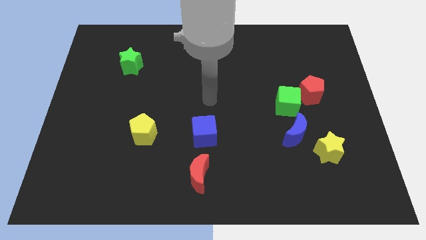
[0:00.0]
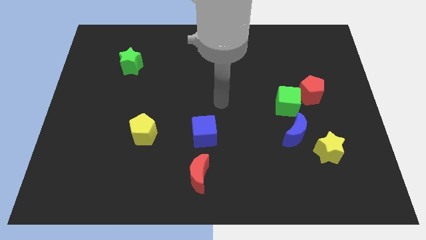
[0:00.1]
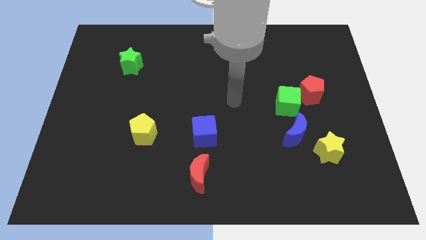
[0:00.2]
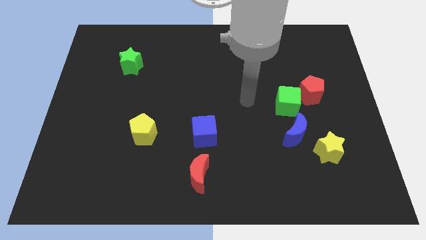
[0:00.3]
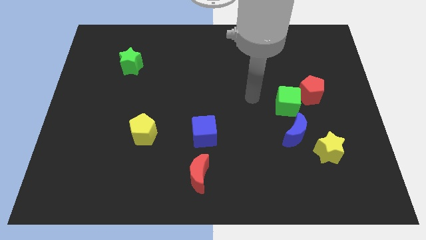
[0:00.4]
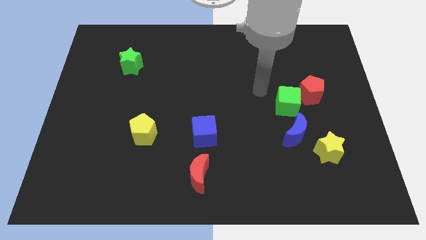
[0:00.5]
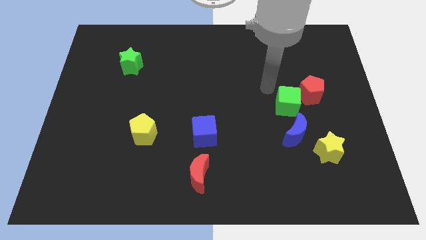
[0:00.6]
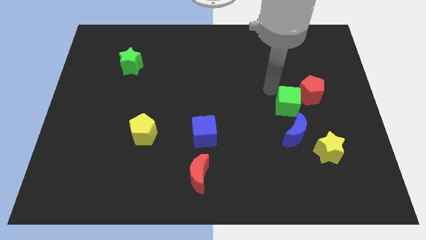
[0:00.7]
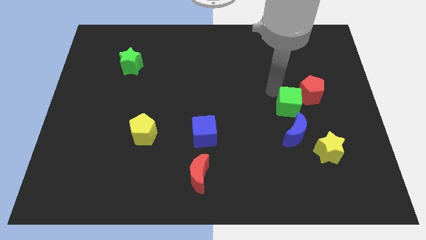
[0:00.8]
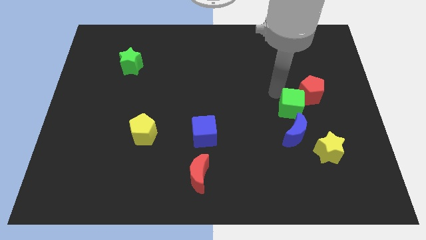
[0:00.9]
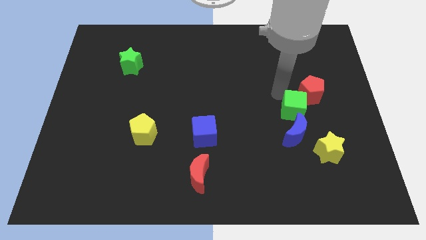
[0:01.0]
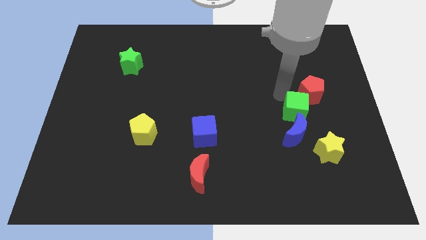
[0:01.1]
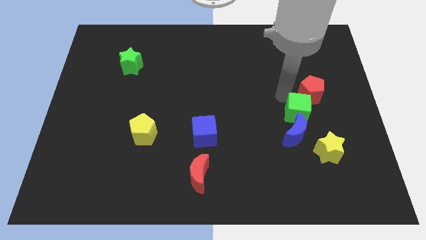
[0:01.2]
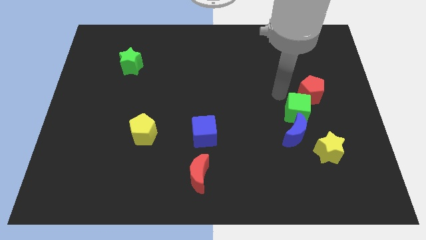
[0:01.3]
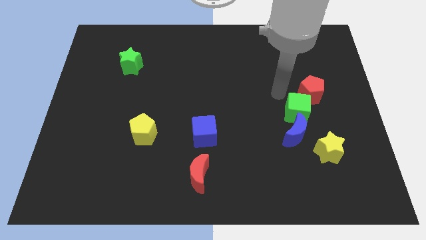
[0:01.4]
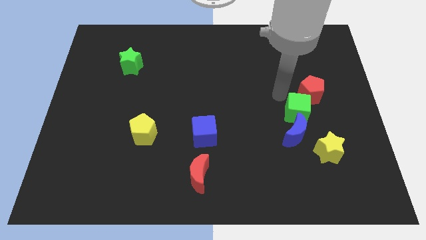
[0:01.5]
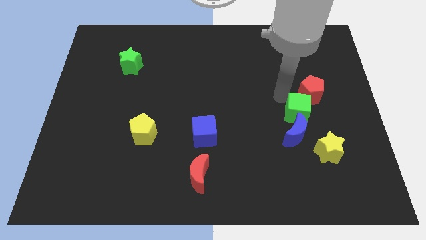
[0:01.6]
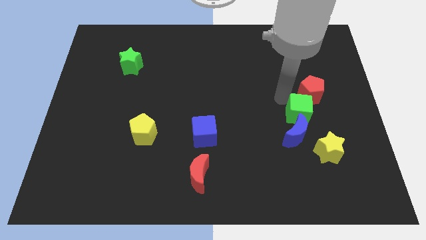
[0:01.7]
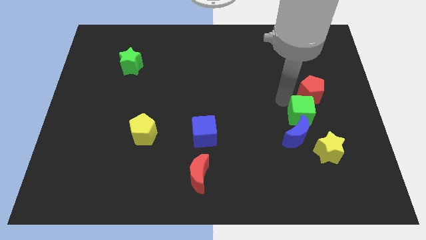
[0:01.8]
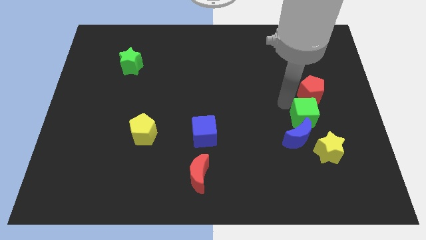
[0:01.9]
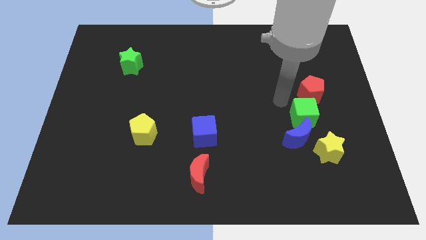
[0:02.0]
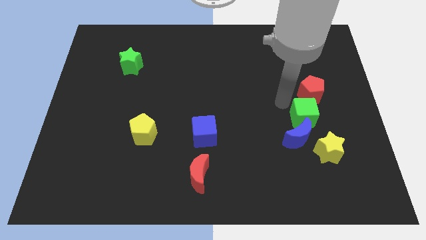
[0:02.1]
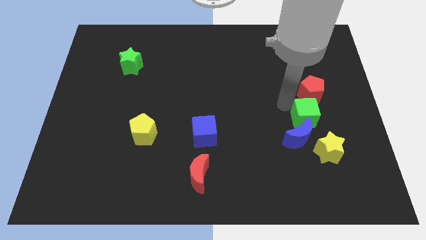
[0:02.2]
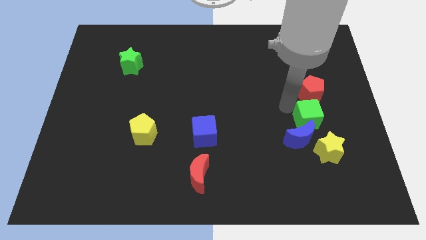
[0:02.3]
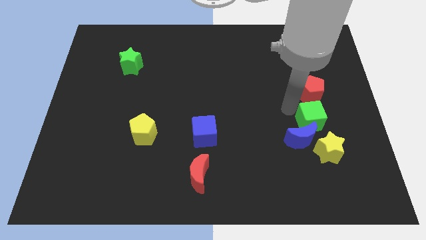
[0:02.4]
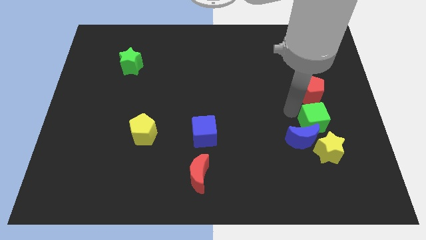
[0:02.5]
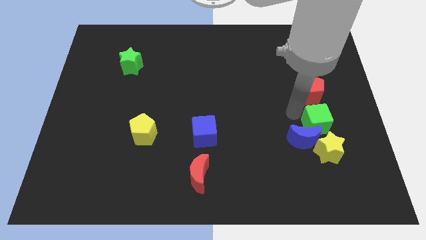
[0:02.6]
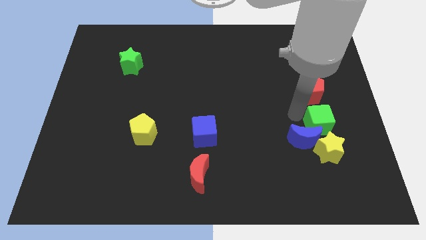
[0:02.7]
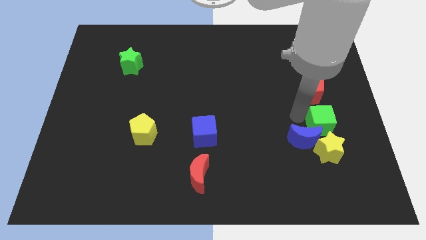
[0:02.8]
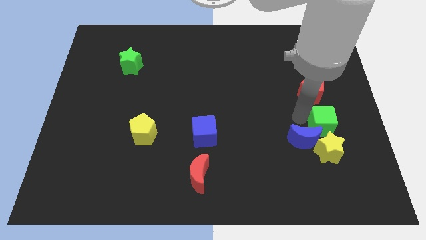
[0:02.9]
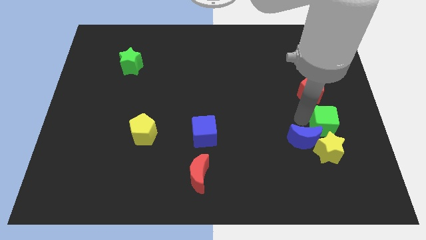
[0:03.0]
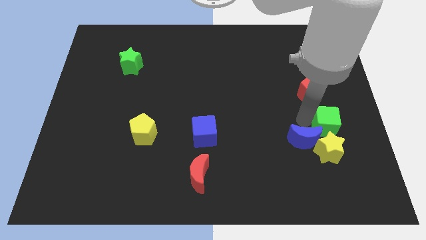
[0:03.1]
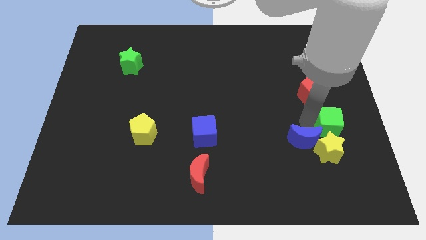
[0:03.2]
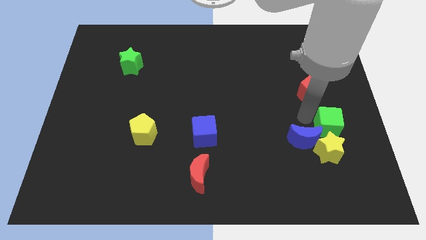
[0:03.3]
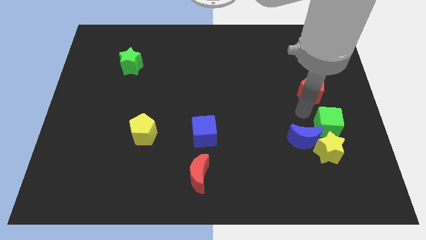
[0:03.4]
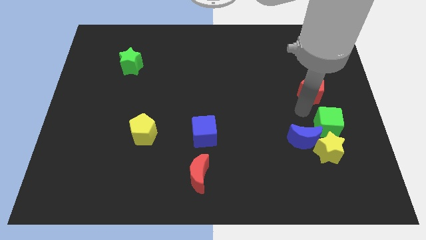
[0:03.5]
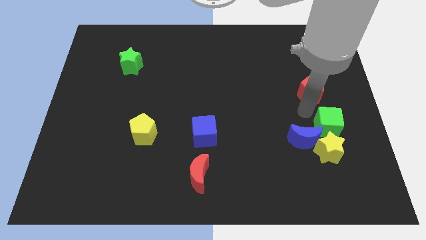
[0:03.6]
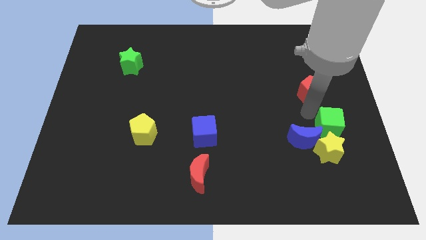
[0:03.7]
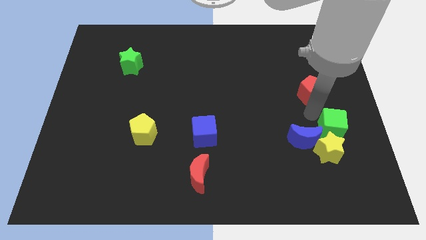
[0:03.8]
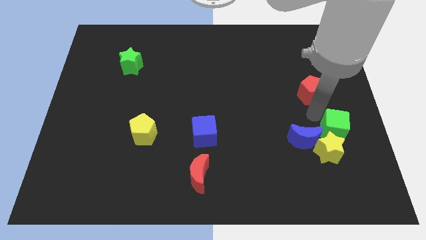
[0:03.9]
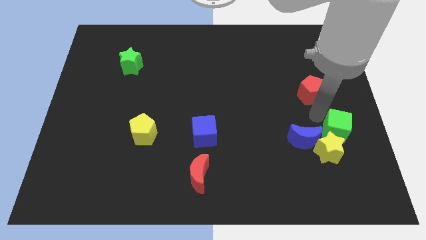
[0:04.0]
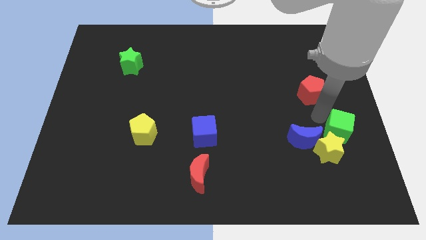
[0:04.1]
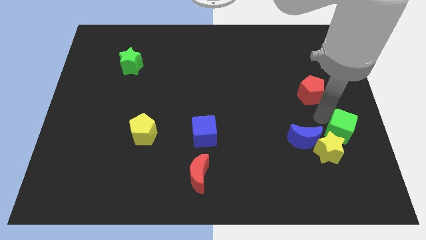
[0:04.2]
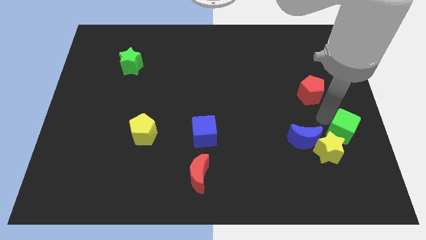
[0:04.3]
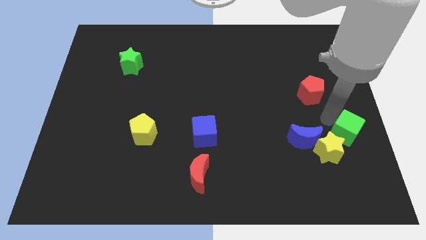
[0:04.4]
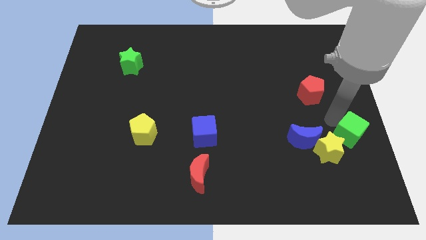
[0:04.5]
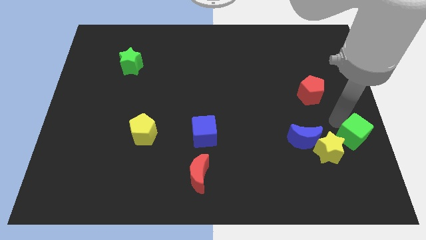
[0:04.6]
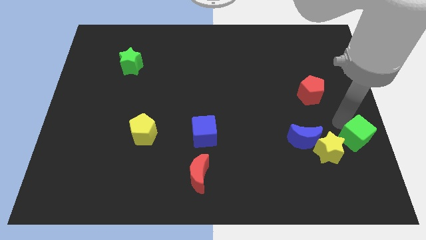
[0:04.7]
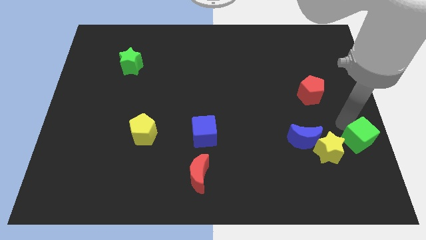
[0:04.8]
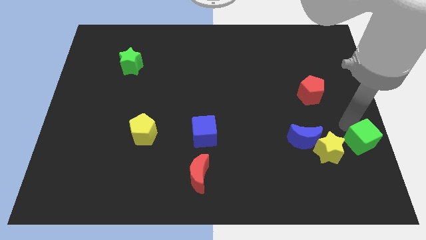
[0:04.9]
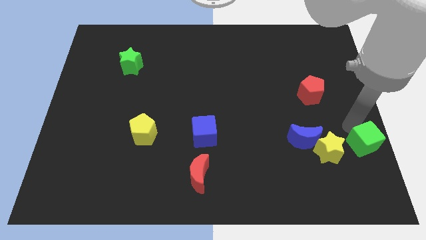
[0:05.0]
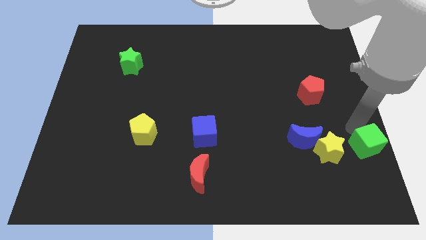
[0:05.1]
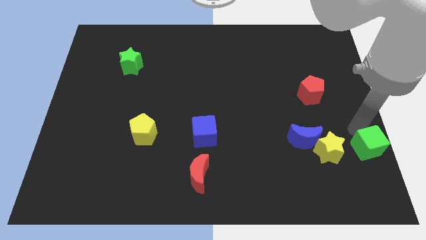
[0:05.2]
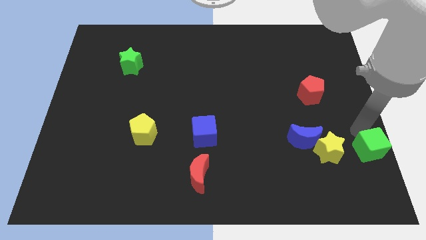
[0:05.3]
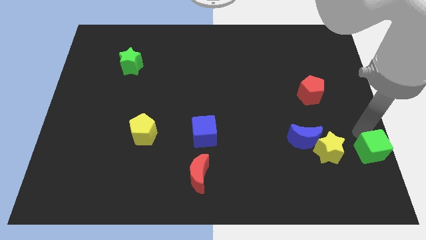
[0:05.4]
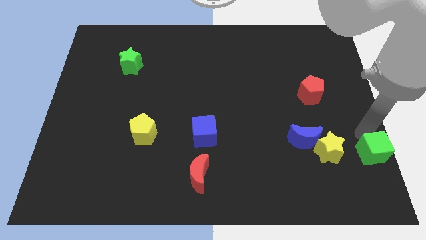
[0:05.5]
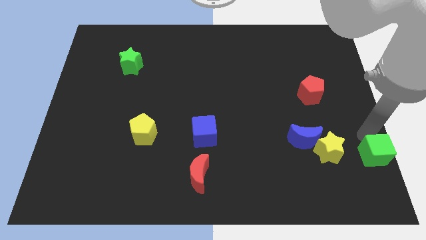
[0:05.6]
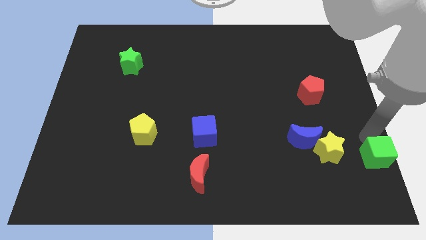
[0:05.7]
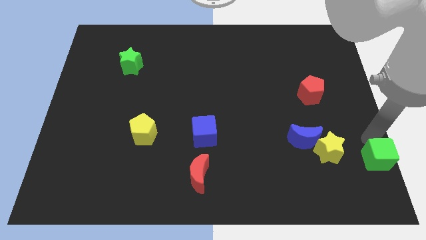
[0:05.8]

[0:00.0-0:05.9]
put the green cube to the bottom right
